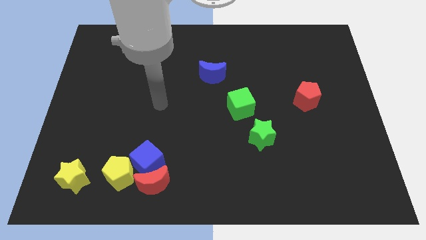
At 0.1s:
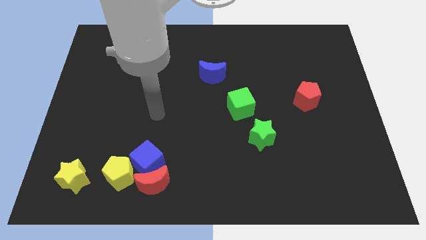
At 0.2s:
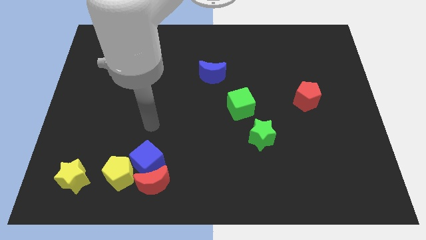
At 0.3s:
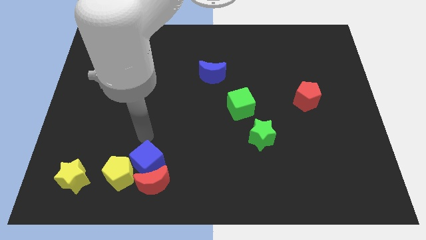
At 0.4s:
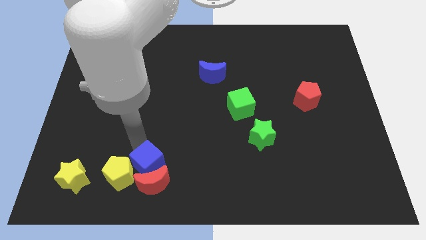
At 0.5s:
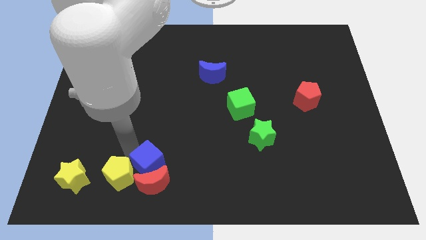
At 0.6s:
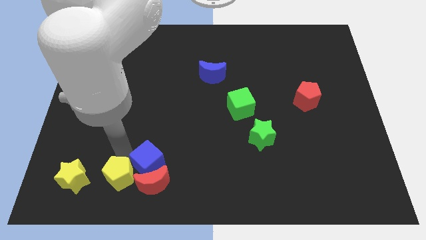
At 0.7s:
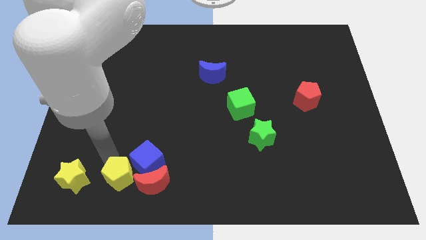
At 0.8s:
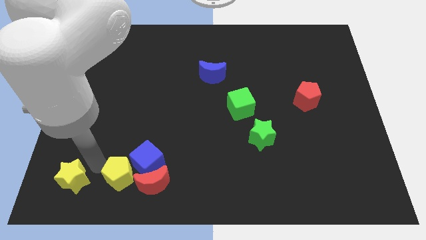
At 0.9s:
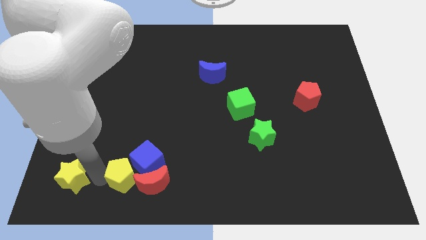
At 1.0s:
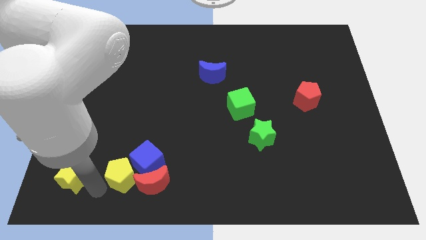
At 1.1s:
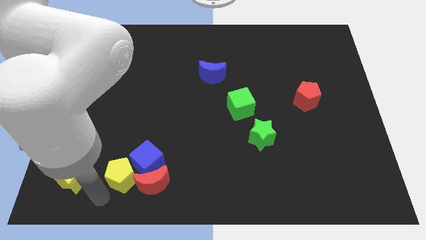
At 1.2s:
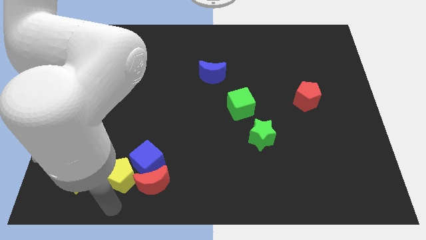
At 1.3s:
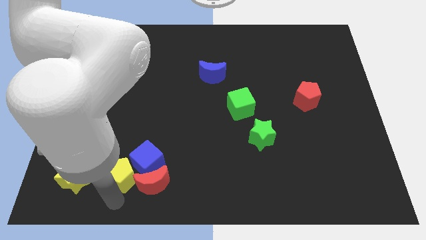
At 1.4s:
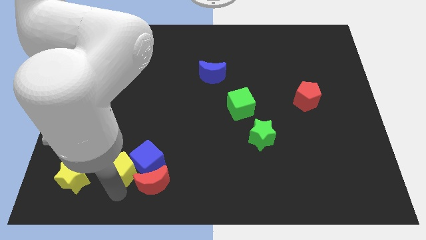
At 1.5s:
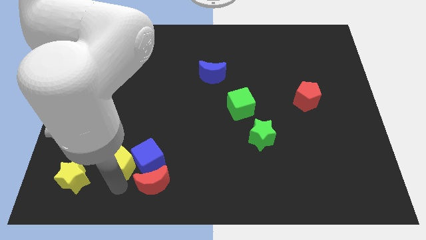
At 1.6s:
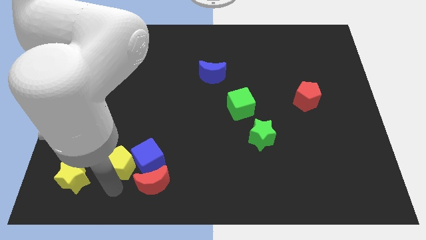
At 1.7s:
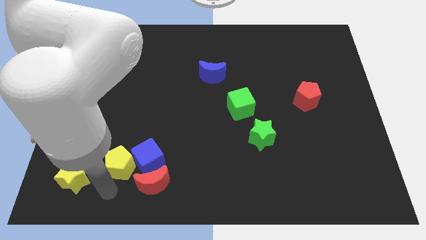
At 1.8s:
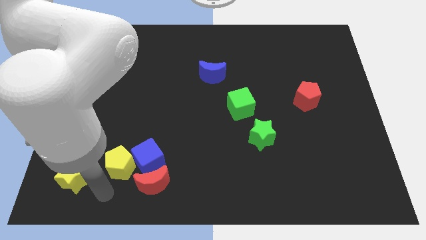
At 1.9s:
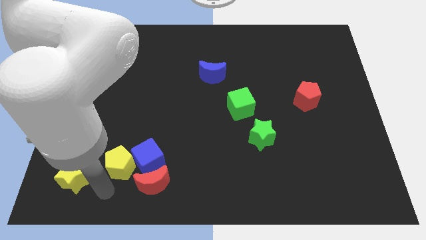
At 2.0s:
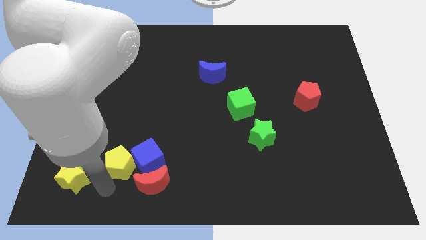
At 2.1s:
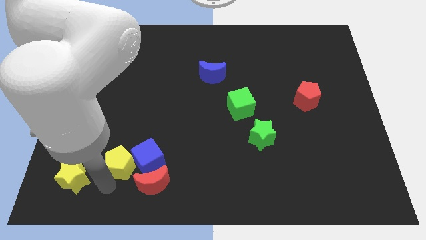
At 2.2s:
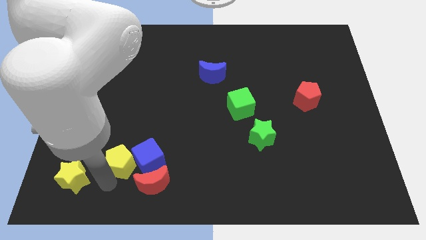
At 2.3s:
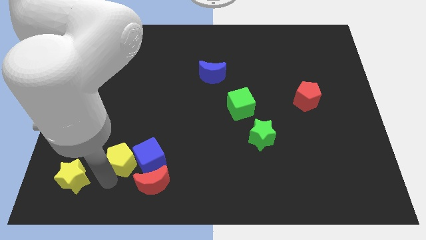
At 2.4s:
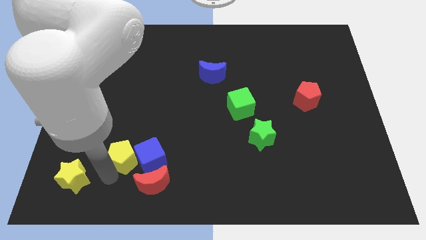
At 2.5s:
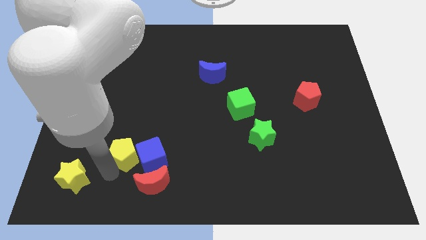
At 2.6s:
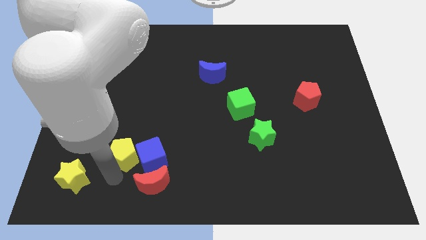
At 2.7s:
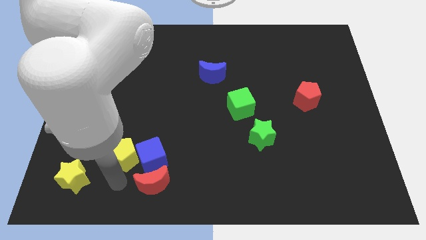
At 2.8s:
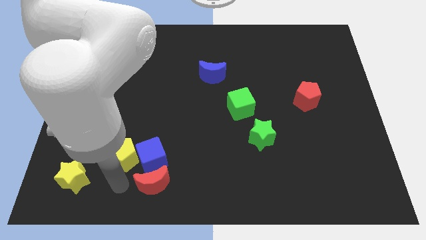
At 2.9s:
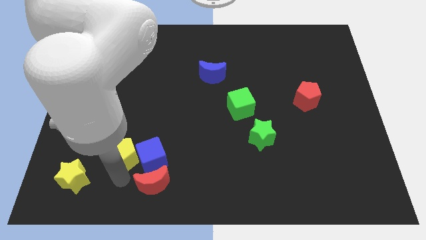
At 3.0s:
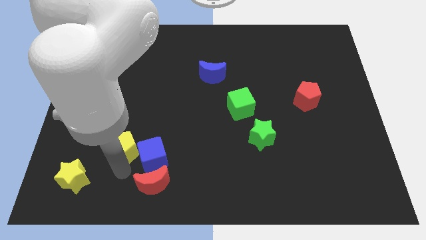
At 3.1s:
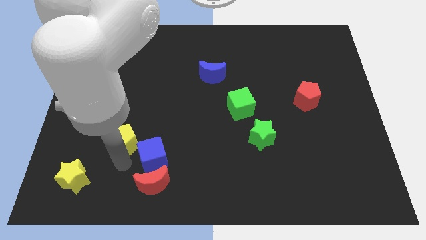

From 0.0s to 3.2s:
slightly move the yellow pentagon up

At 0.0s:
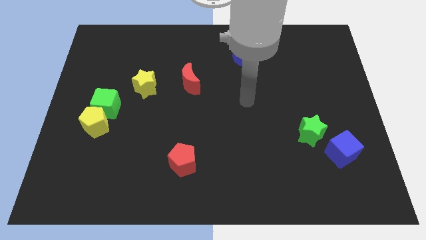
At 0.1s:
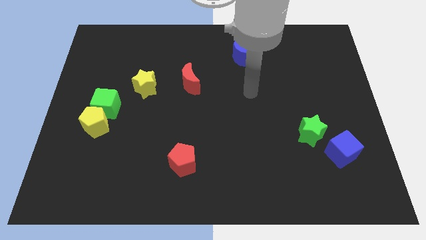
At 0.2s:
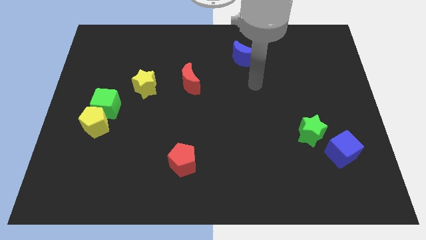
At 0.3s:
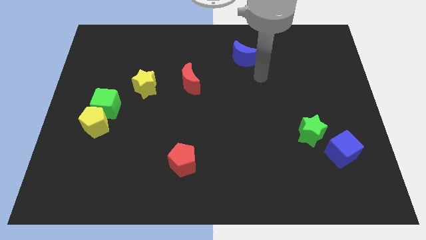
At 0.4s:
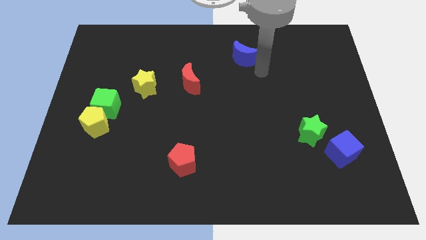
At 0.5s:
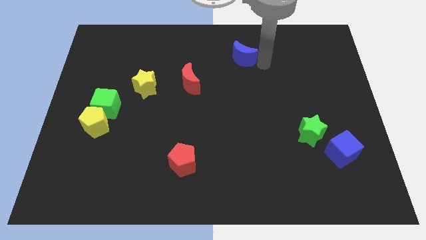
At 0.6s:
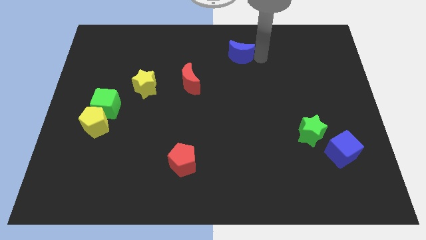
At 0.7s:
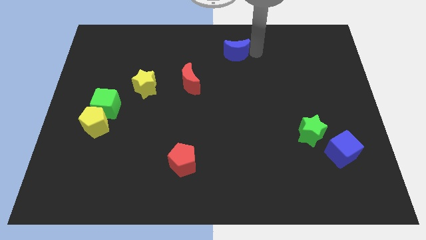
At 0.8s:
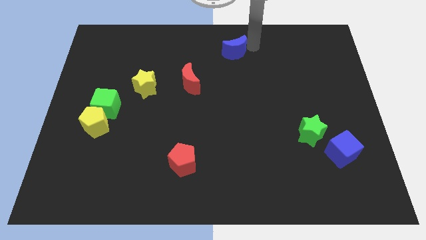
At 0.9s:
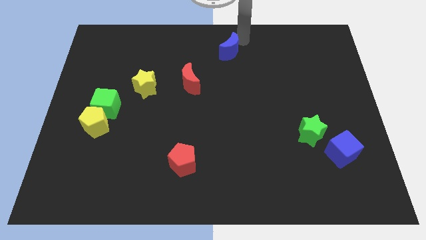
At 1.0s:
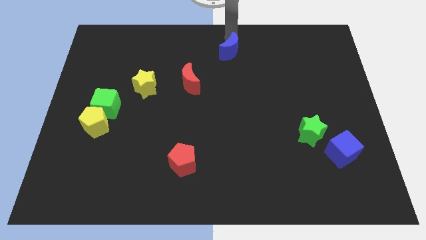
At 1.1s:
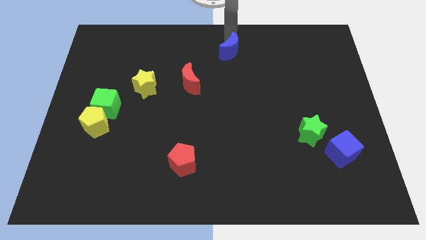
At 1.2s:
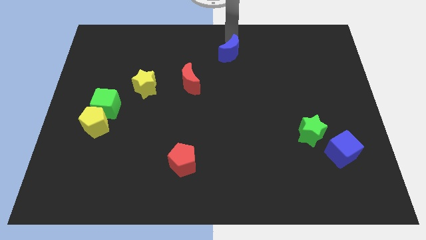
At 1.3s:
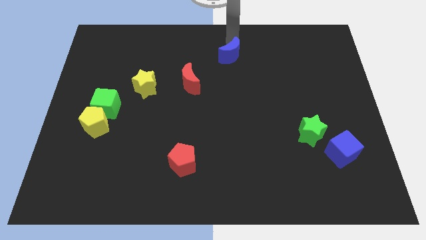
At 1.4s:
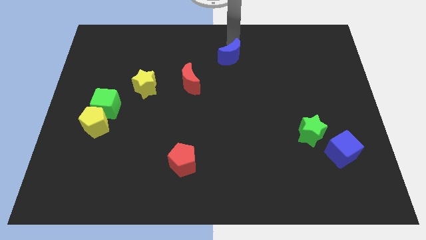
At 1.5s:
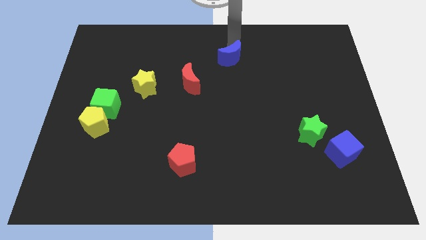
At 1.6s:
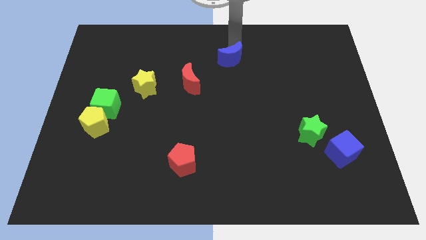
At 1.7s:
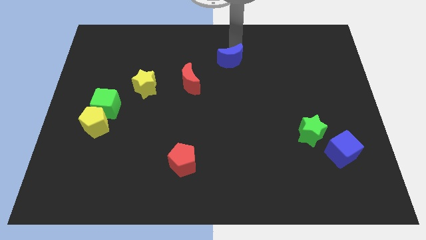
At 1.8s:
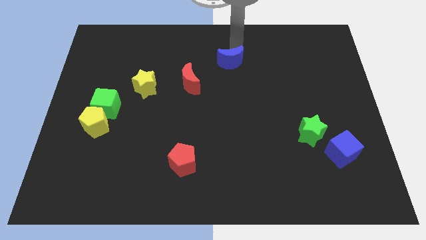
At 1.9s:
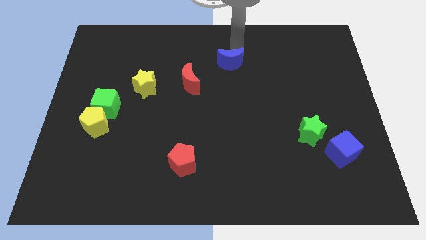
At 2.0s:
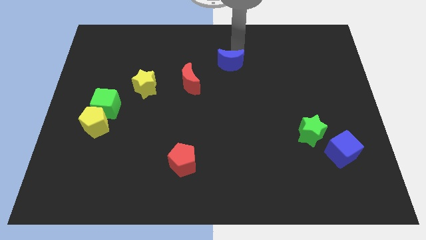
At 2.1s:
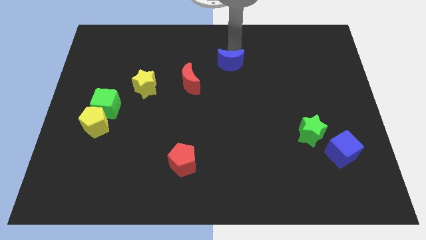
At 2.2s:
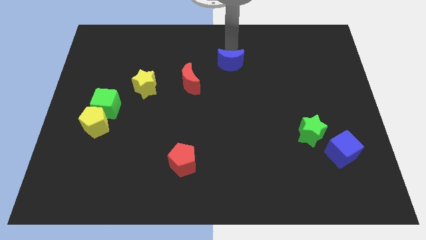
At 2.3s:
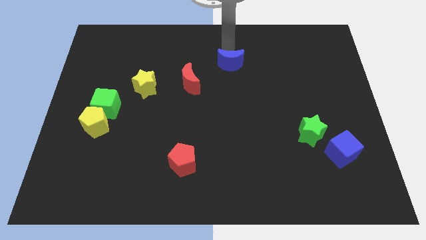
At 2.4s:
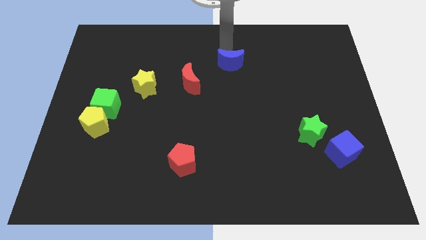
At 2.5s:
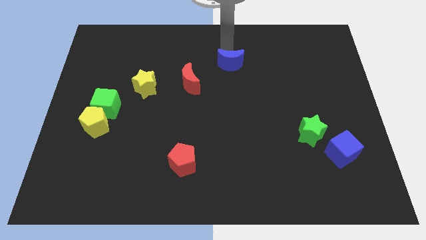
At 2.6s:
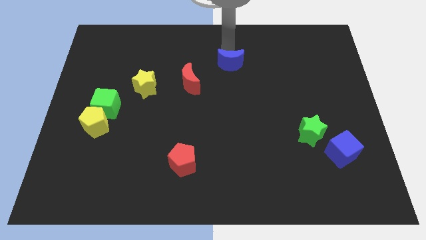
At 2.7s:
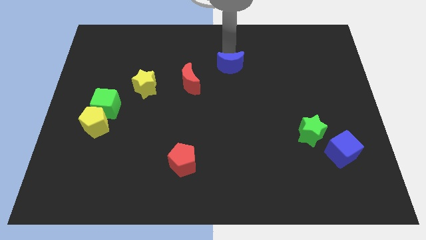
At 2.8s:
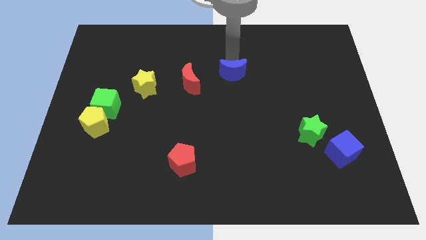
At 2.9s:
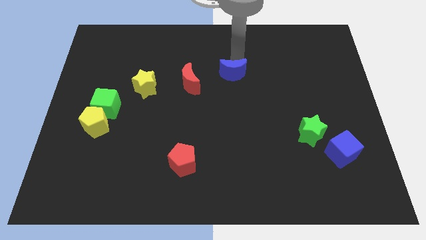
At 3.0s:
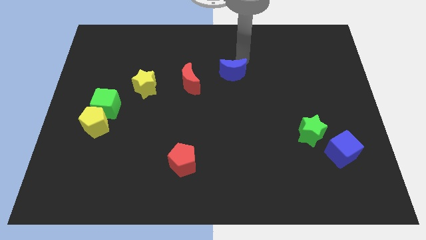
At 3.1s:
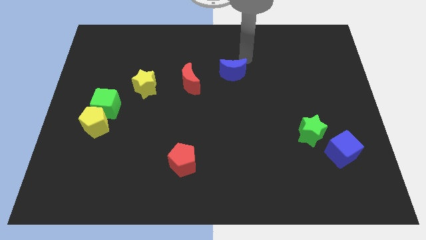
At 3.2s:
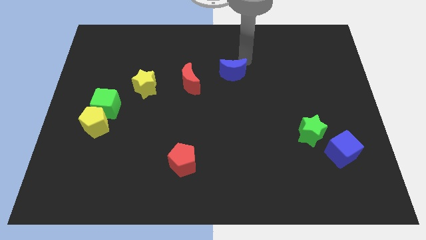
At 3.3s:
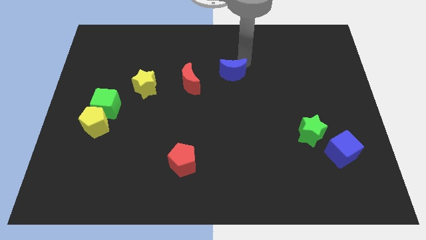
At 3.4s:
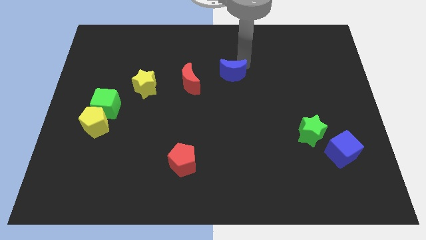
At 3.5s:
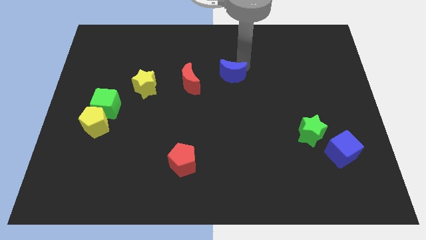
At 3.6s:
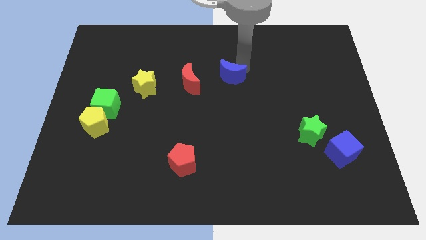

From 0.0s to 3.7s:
move the blue moon diagonally down and to the left a little

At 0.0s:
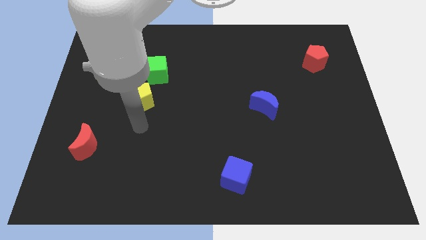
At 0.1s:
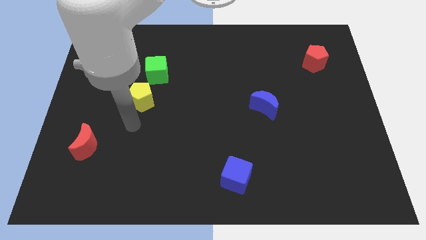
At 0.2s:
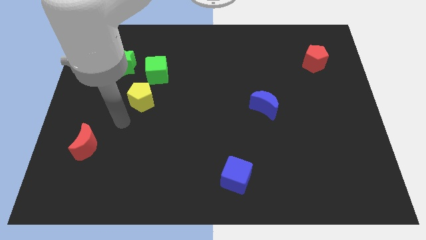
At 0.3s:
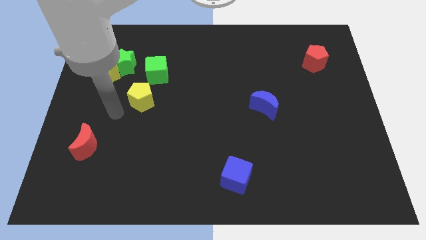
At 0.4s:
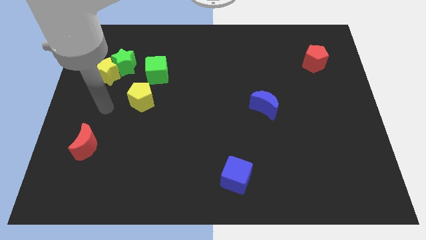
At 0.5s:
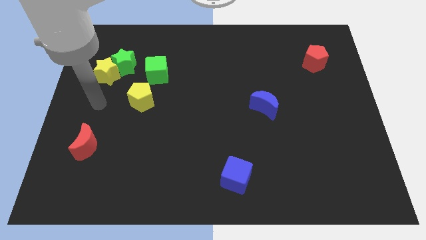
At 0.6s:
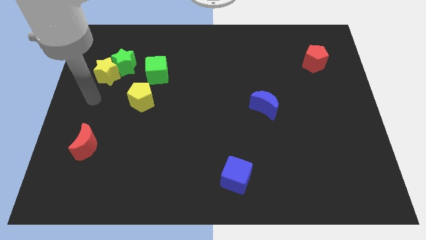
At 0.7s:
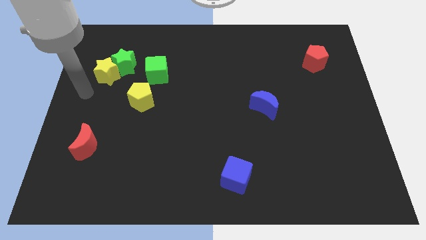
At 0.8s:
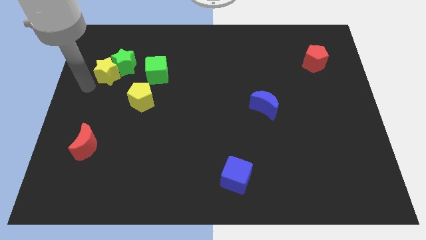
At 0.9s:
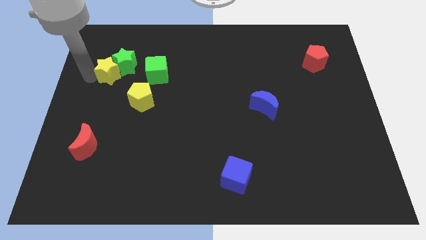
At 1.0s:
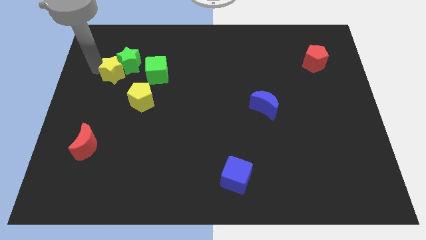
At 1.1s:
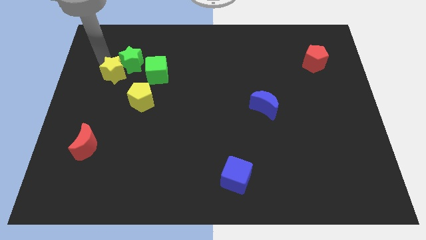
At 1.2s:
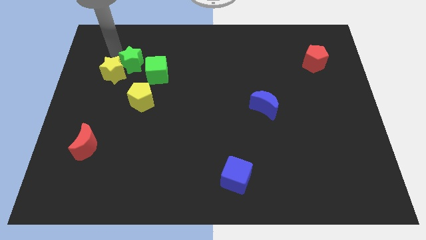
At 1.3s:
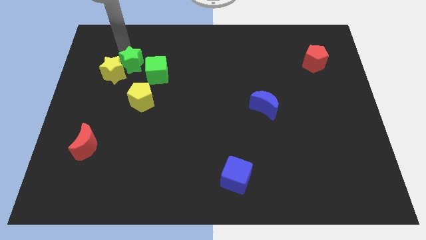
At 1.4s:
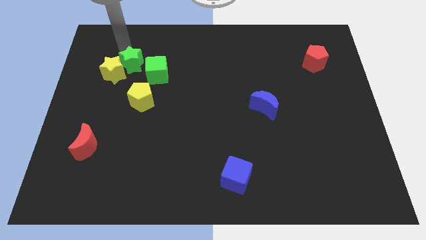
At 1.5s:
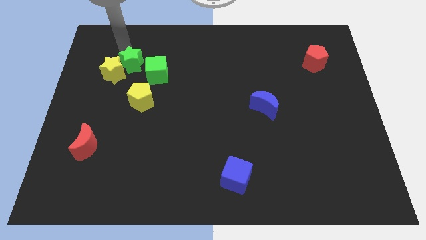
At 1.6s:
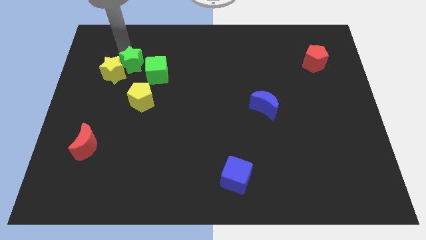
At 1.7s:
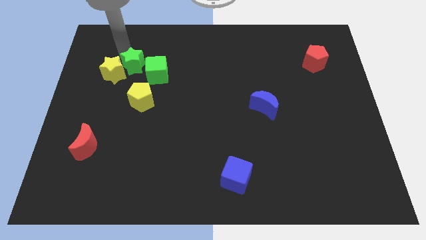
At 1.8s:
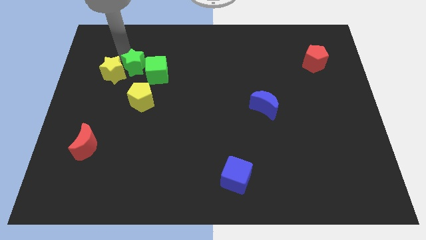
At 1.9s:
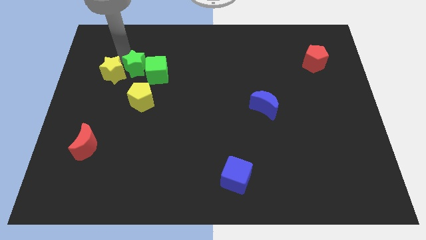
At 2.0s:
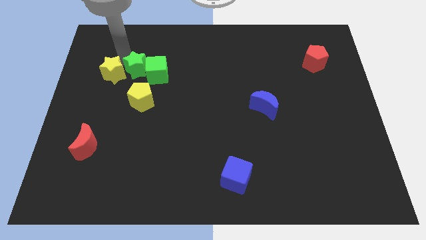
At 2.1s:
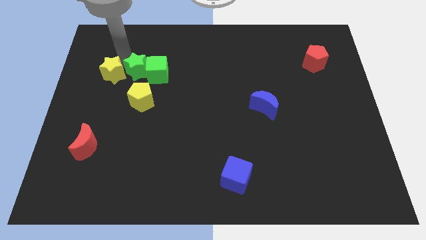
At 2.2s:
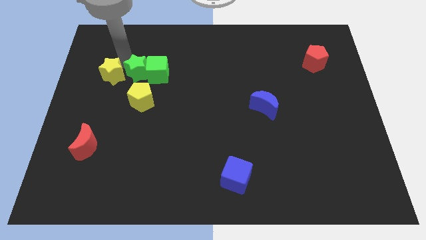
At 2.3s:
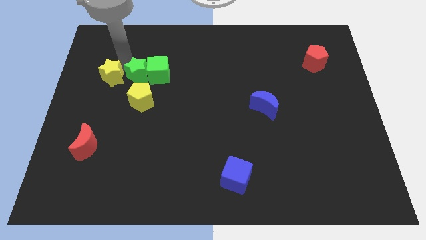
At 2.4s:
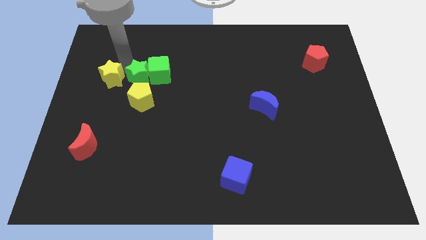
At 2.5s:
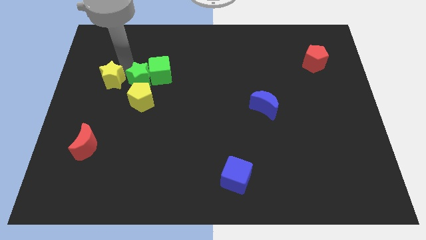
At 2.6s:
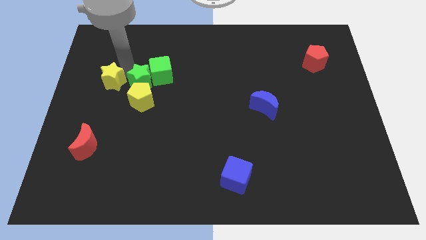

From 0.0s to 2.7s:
push the green star a little bit downwards and then to the right
